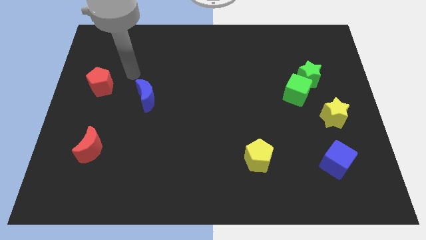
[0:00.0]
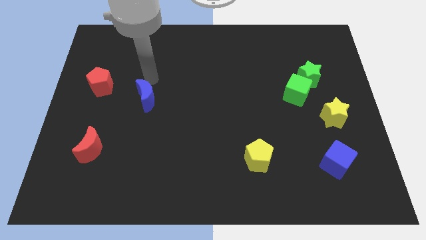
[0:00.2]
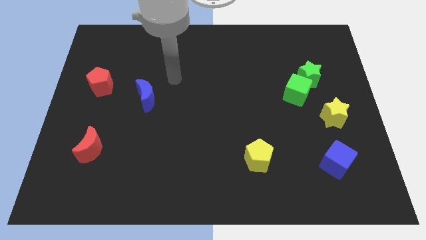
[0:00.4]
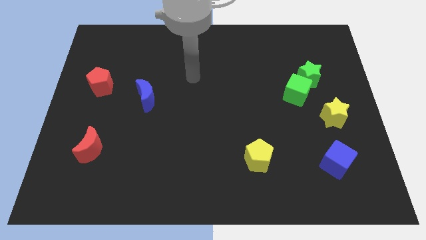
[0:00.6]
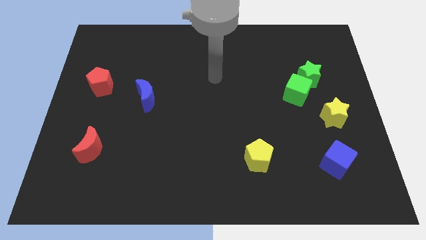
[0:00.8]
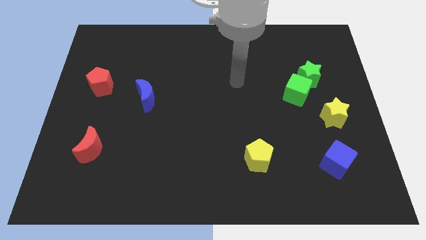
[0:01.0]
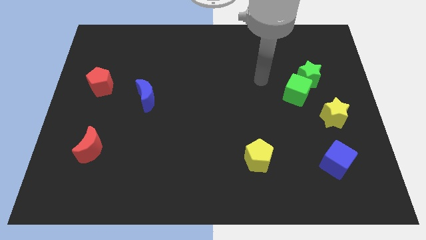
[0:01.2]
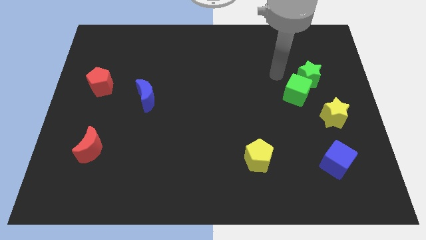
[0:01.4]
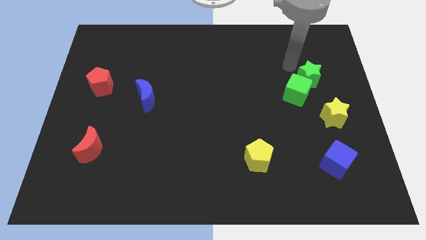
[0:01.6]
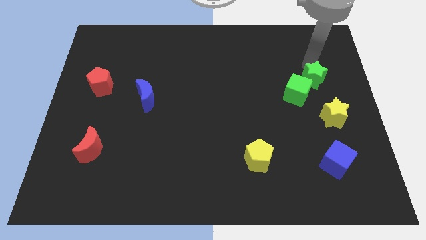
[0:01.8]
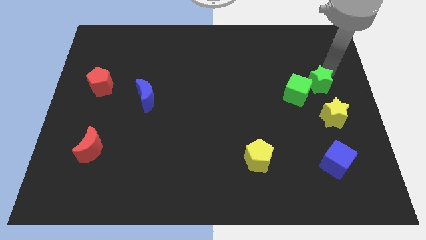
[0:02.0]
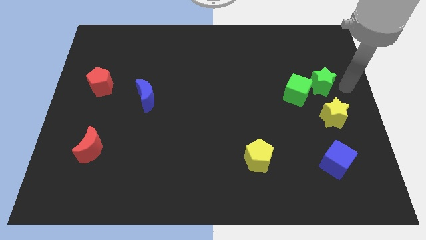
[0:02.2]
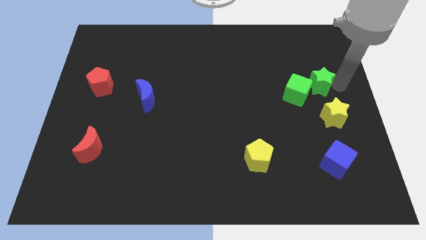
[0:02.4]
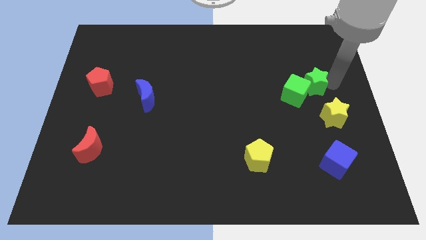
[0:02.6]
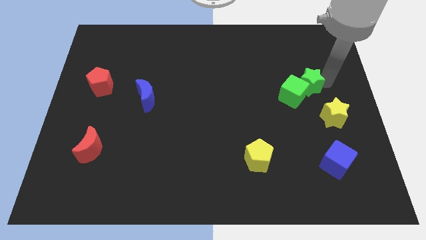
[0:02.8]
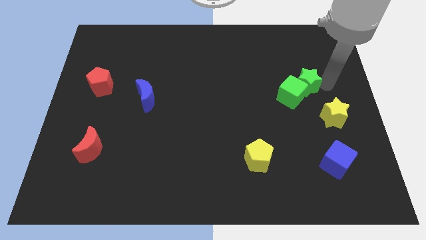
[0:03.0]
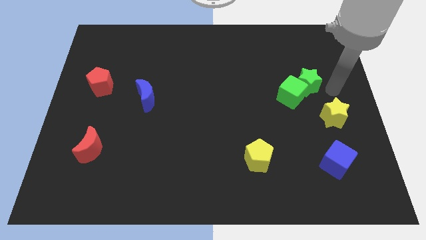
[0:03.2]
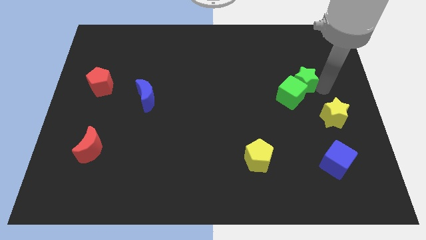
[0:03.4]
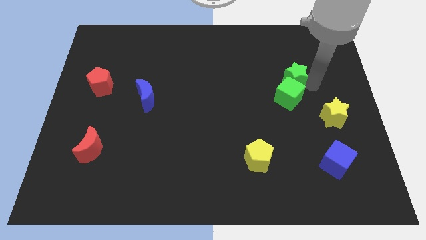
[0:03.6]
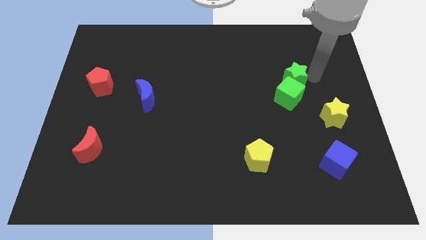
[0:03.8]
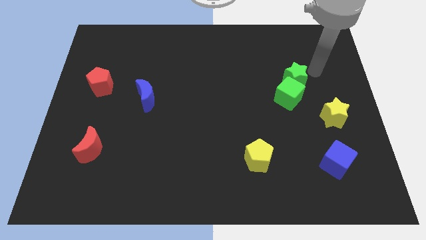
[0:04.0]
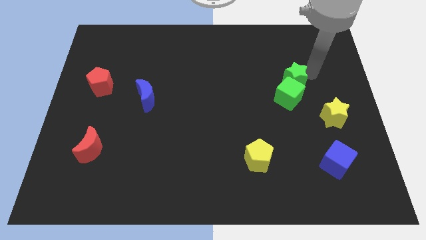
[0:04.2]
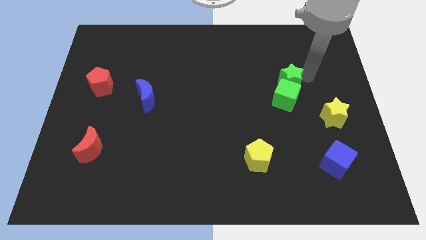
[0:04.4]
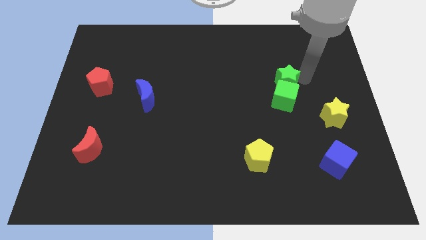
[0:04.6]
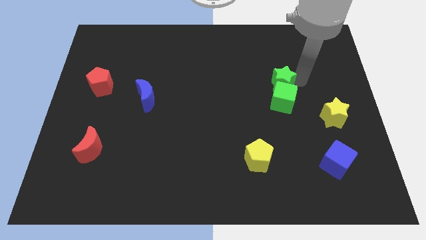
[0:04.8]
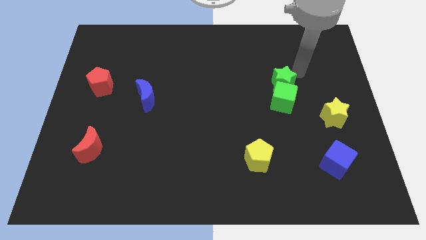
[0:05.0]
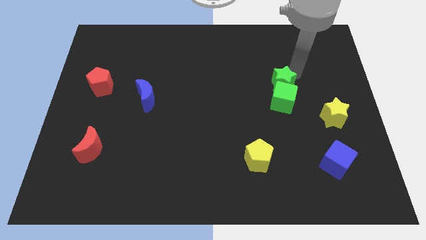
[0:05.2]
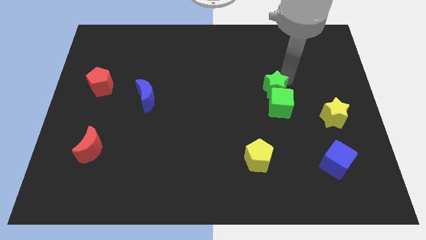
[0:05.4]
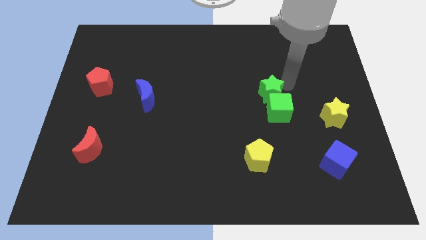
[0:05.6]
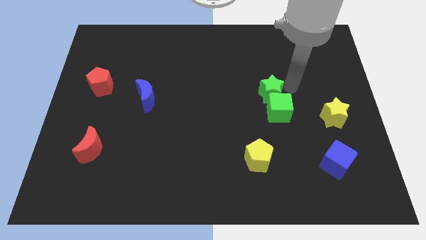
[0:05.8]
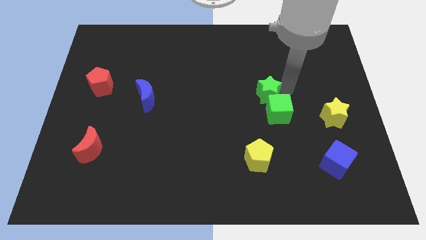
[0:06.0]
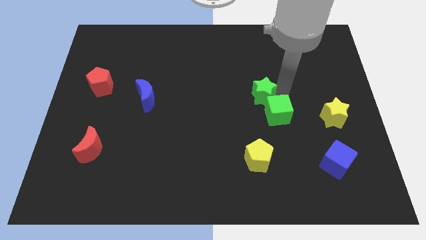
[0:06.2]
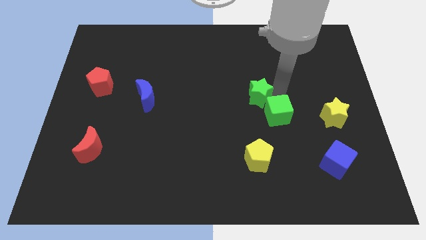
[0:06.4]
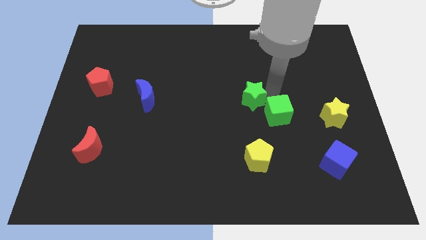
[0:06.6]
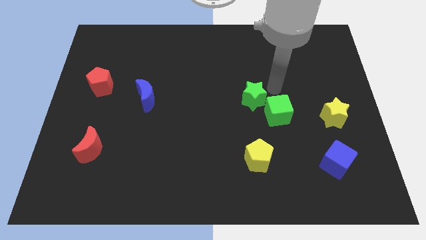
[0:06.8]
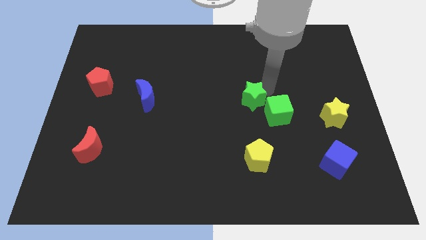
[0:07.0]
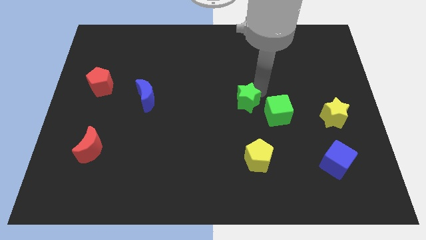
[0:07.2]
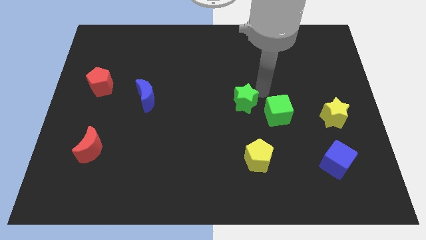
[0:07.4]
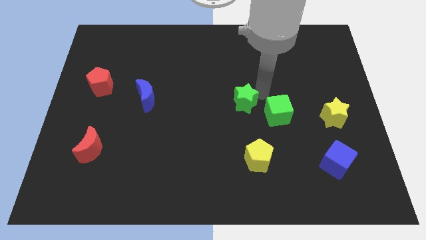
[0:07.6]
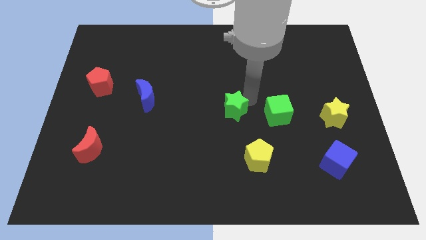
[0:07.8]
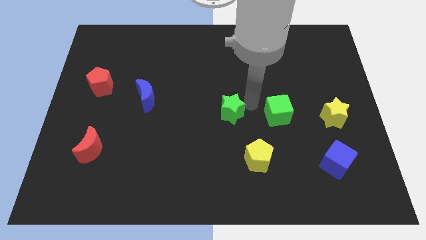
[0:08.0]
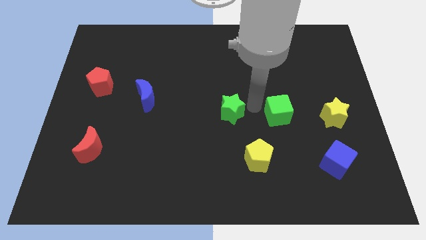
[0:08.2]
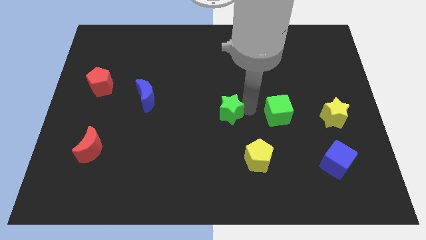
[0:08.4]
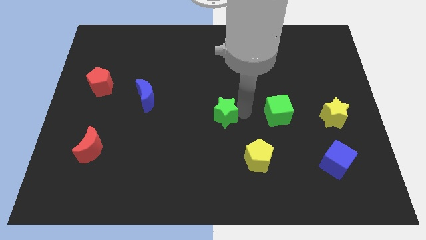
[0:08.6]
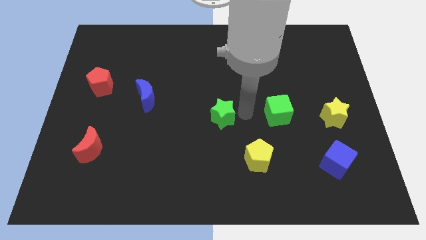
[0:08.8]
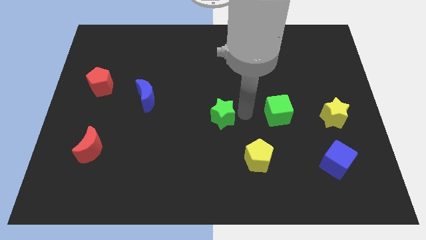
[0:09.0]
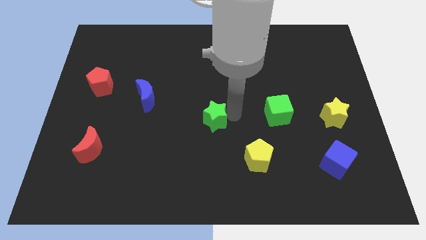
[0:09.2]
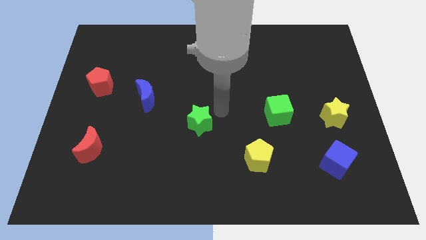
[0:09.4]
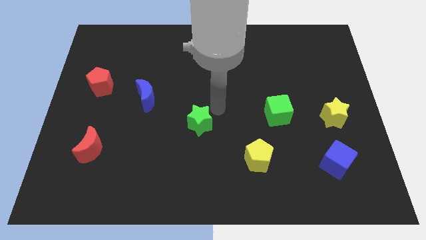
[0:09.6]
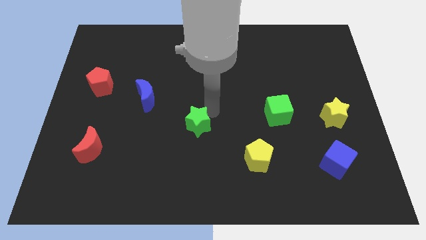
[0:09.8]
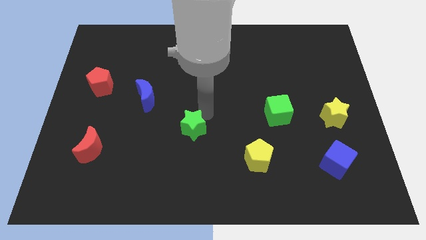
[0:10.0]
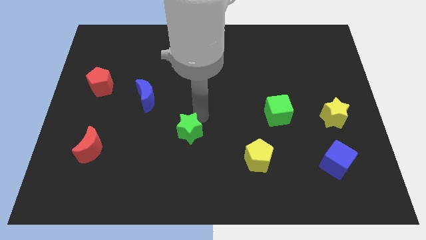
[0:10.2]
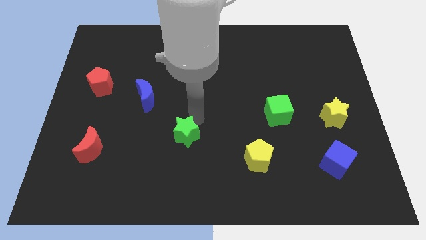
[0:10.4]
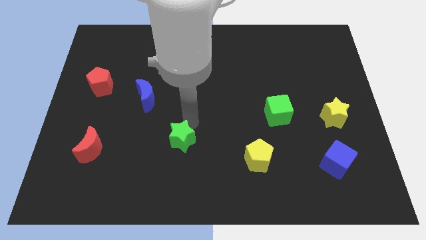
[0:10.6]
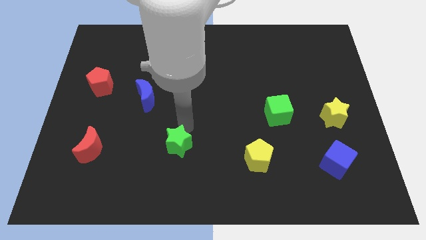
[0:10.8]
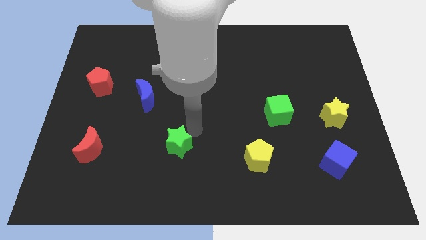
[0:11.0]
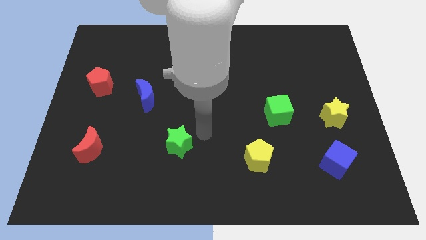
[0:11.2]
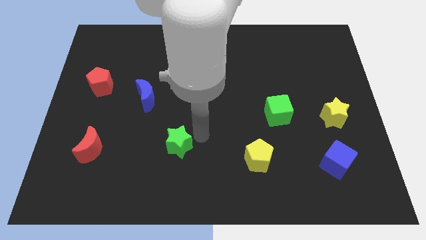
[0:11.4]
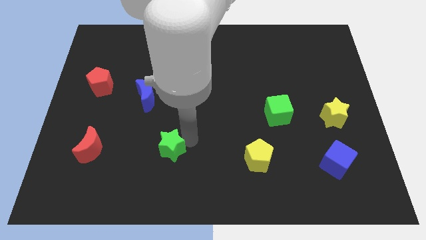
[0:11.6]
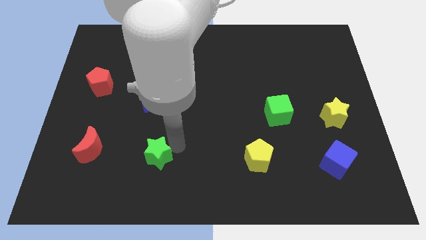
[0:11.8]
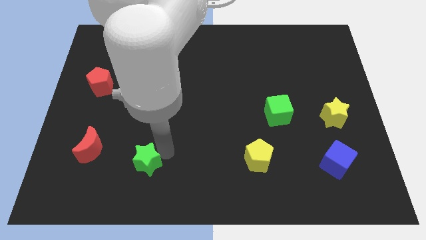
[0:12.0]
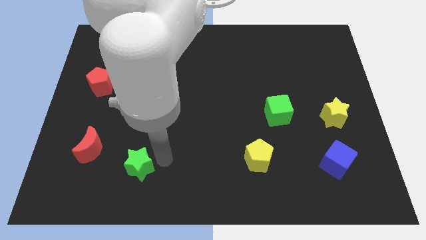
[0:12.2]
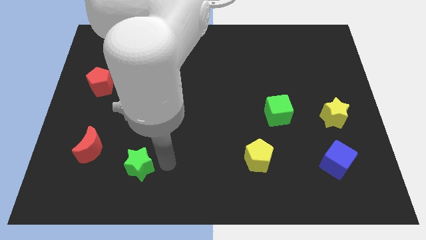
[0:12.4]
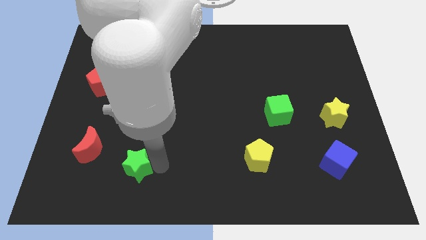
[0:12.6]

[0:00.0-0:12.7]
move the green star to the bottom right of the red moon

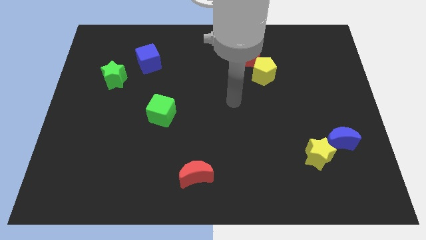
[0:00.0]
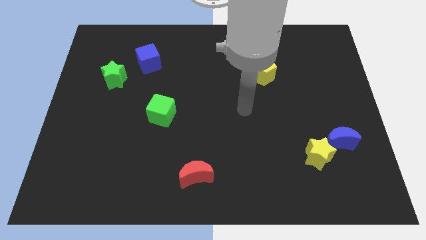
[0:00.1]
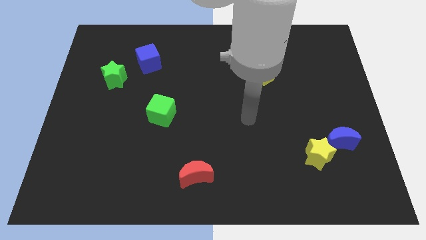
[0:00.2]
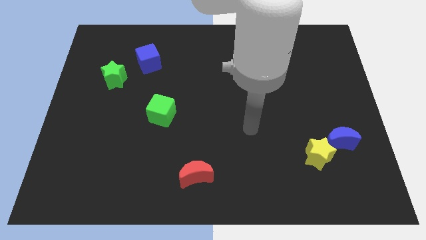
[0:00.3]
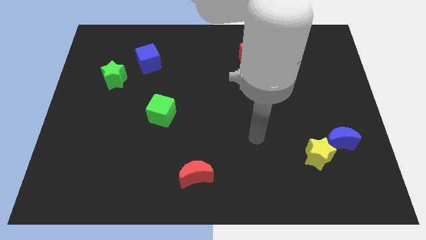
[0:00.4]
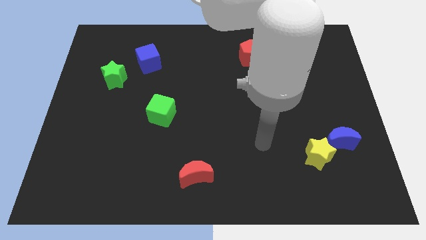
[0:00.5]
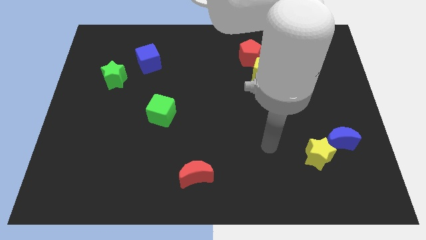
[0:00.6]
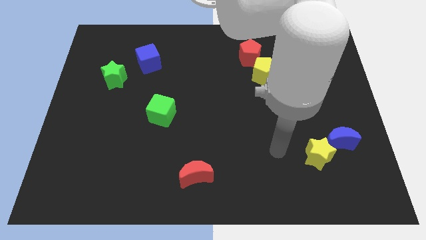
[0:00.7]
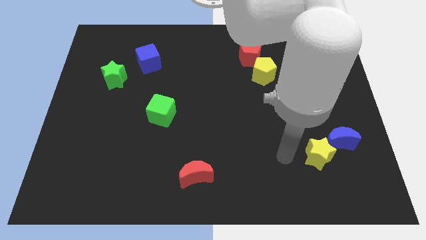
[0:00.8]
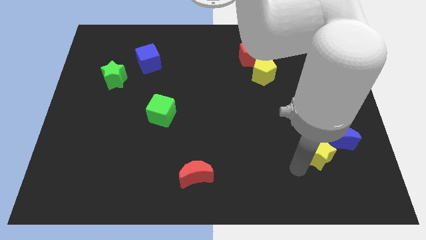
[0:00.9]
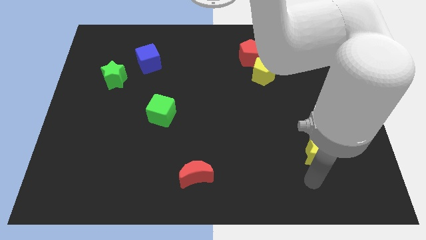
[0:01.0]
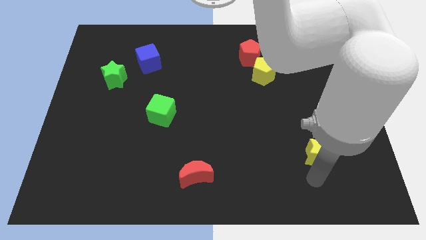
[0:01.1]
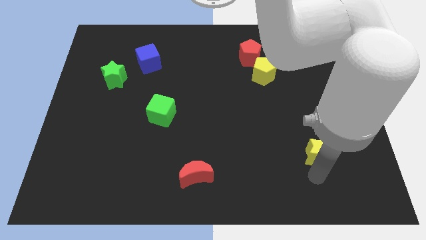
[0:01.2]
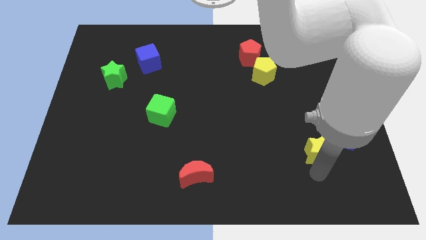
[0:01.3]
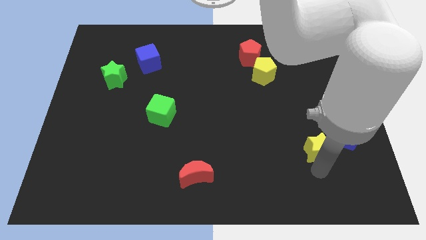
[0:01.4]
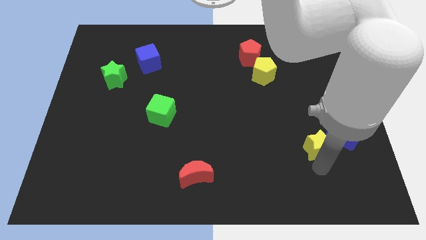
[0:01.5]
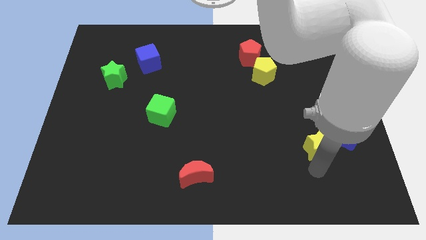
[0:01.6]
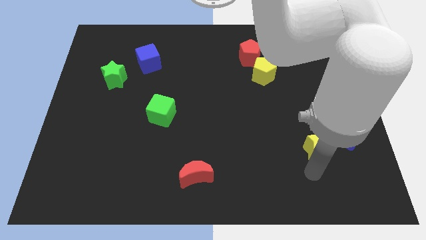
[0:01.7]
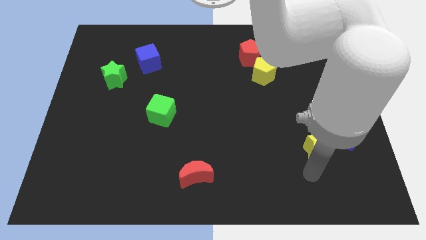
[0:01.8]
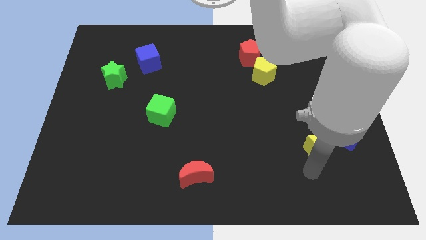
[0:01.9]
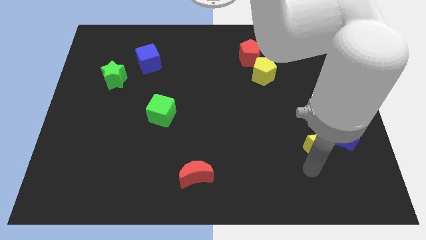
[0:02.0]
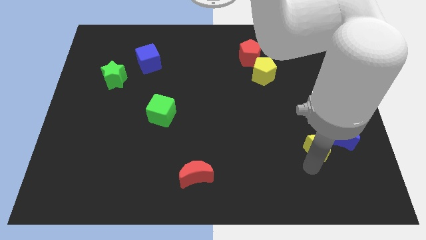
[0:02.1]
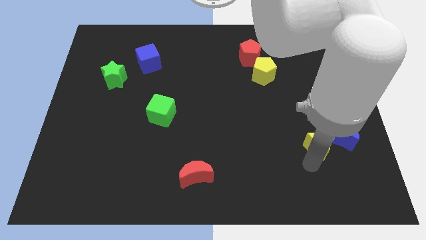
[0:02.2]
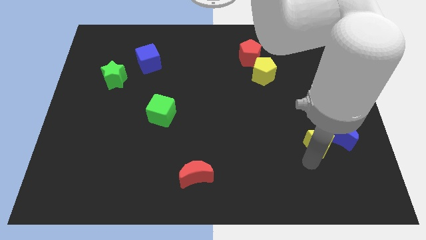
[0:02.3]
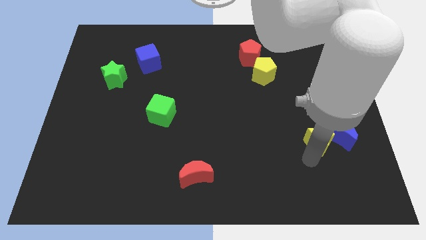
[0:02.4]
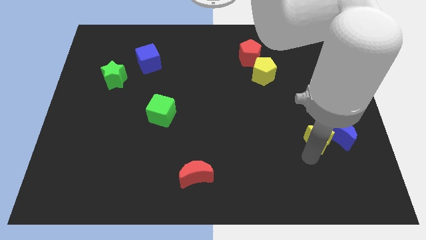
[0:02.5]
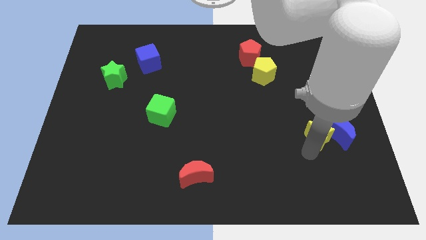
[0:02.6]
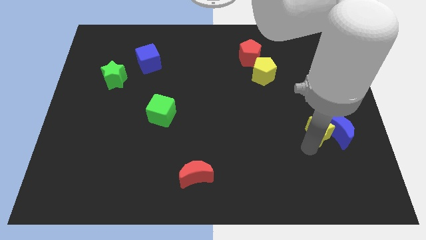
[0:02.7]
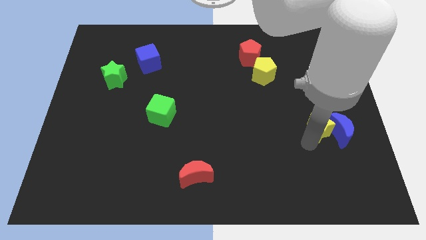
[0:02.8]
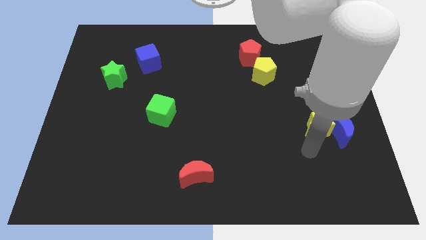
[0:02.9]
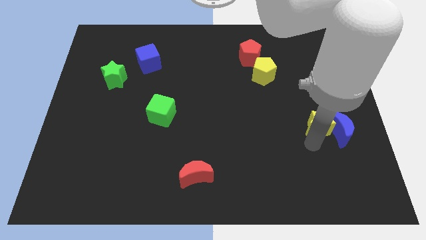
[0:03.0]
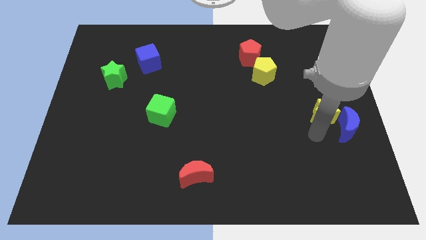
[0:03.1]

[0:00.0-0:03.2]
slide the yellow star to the top of the blue moon
